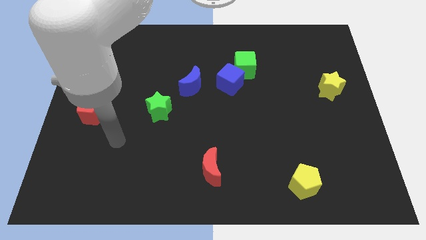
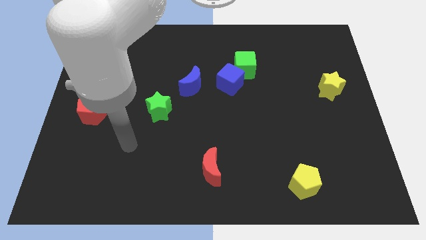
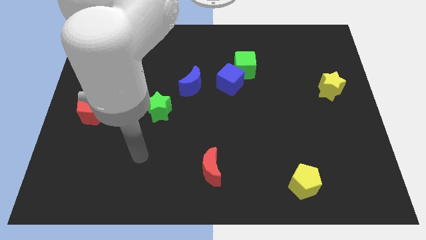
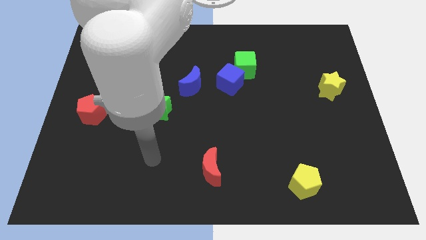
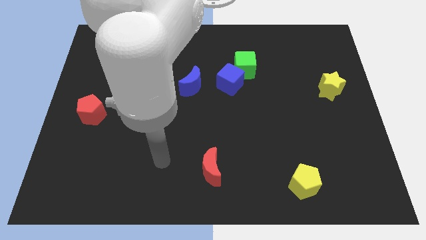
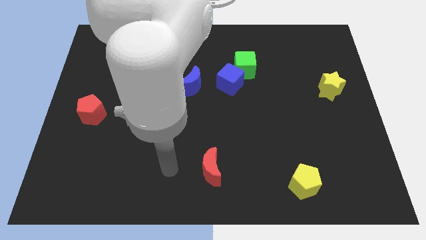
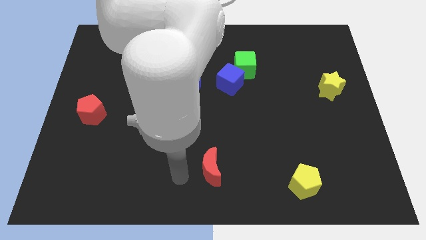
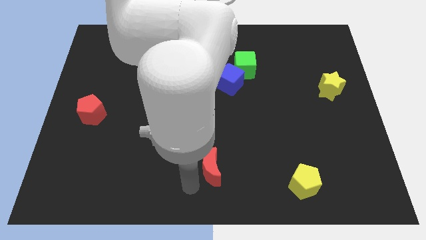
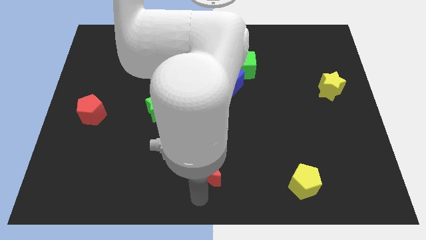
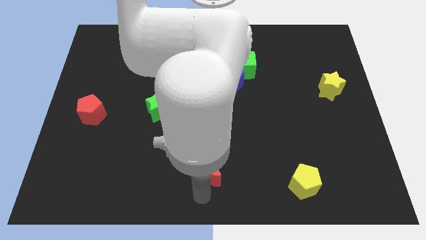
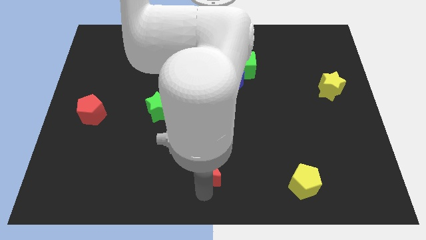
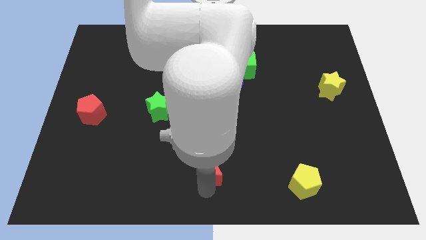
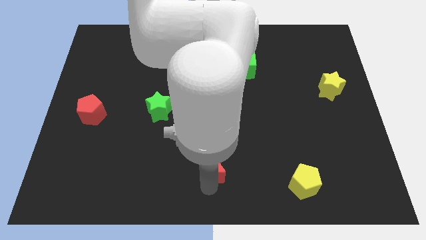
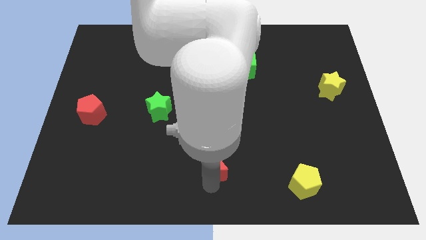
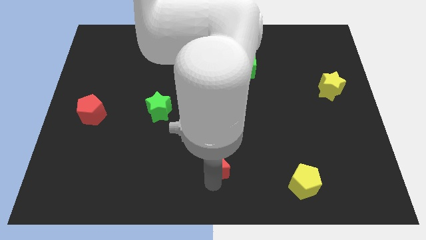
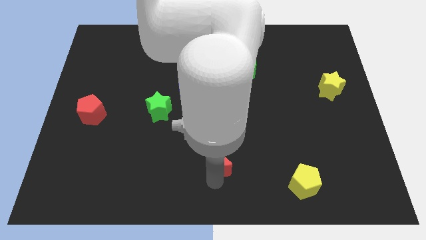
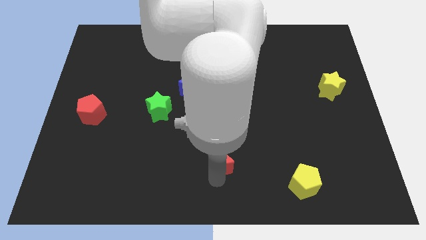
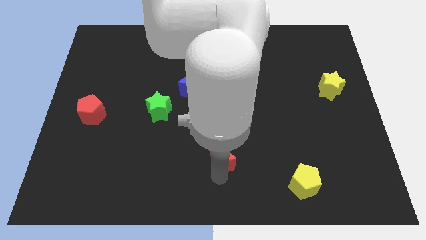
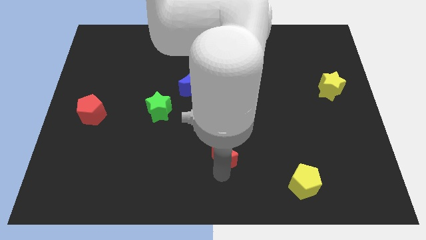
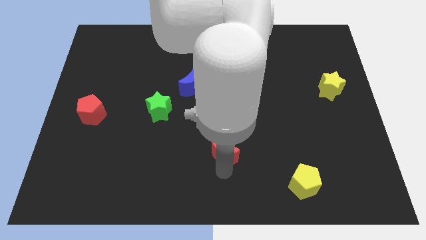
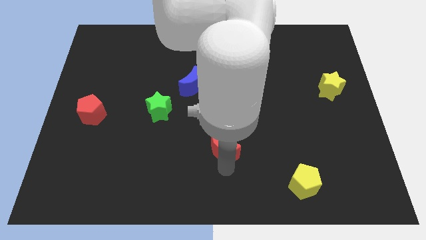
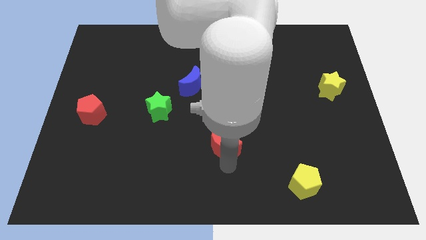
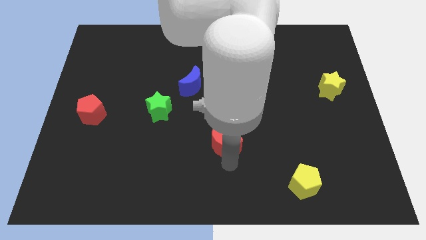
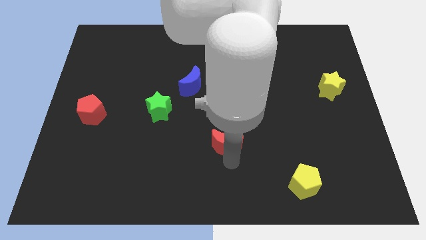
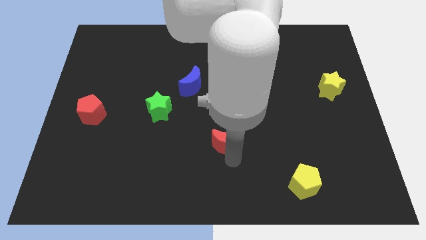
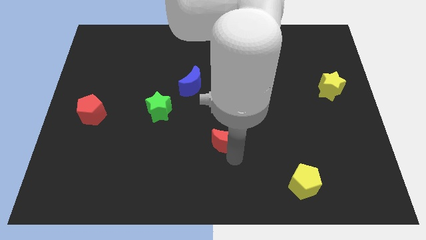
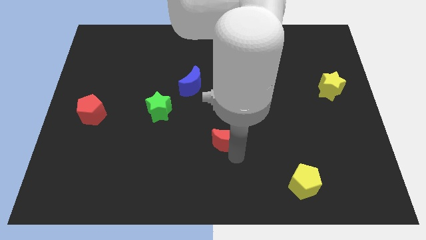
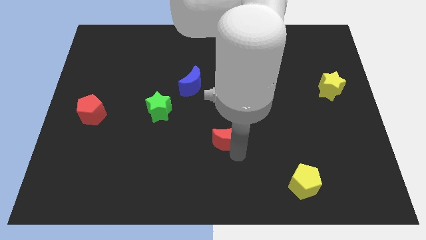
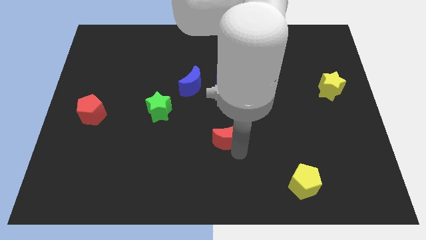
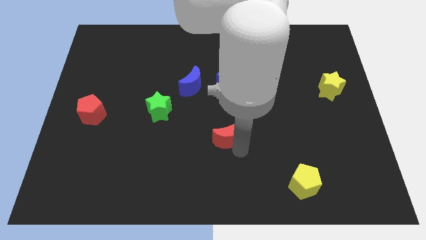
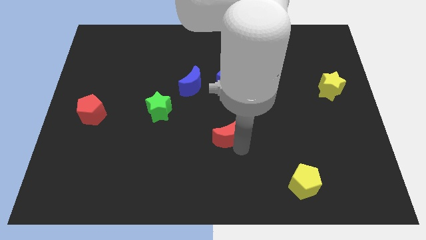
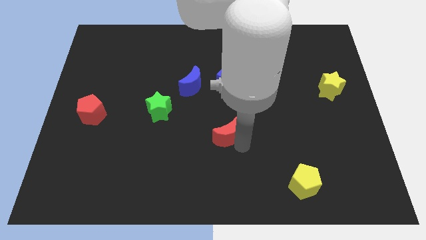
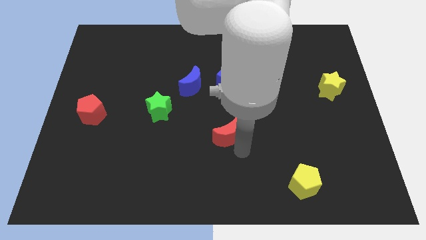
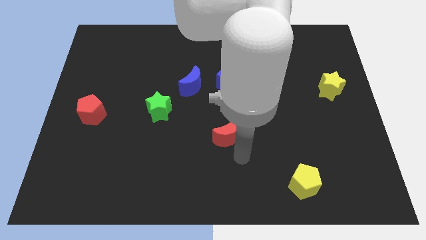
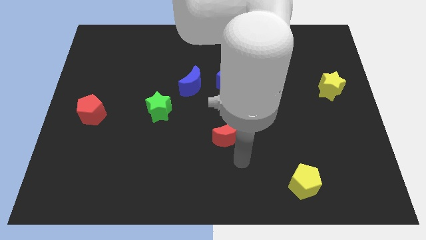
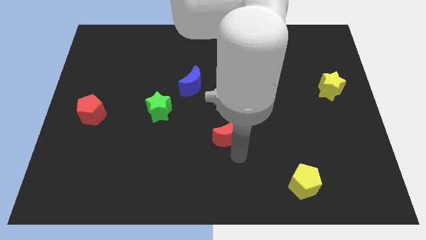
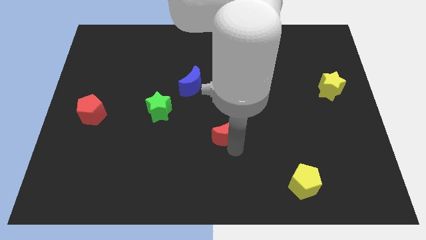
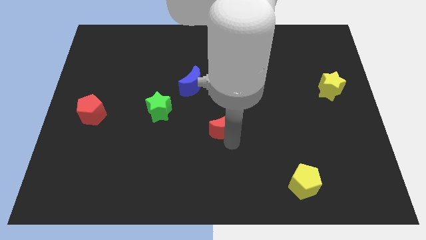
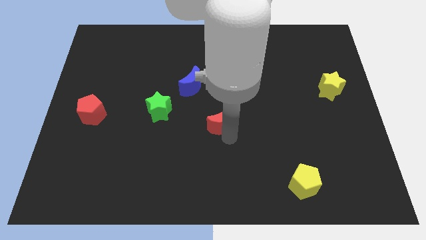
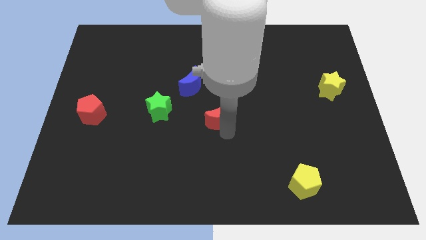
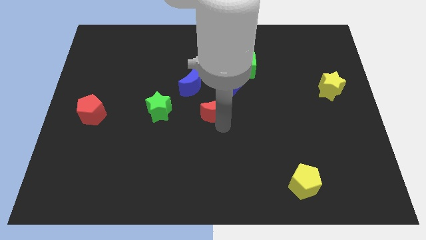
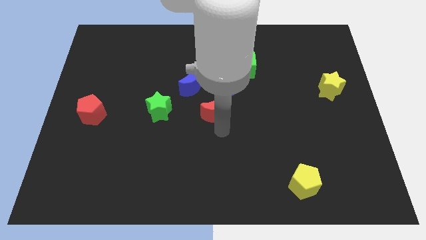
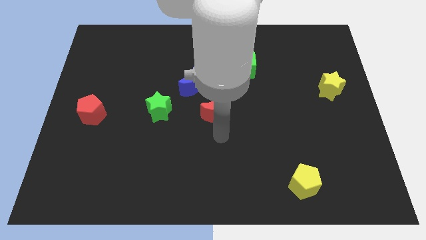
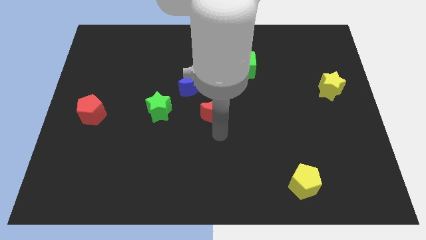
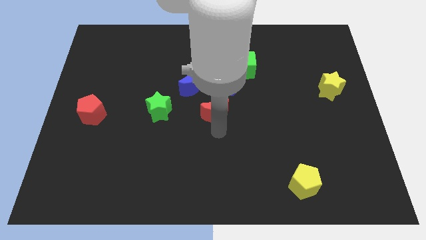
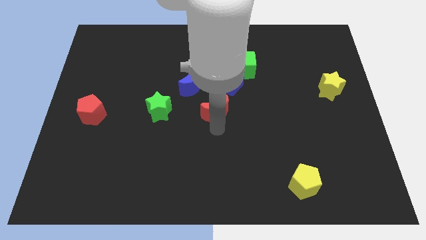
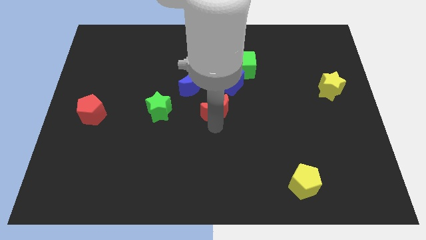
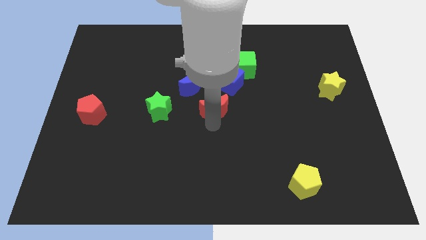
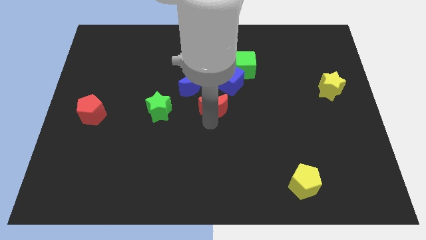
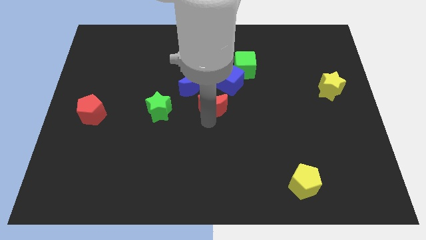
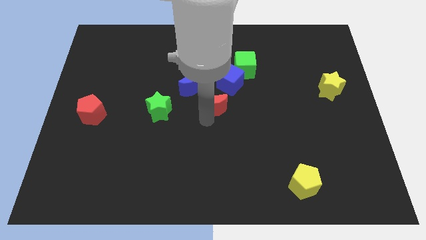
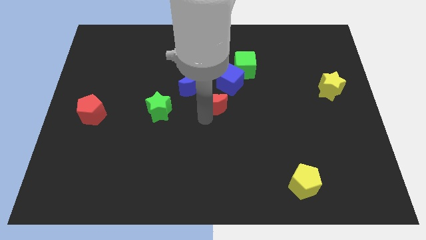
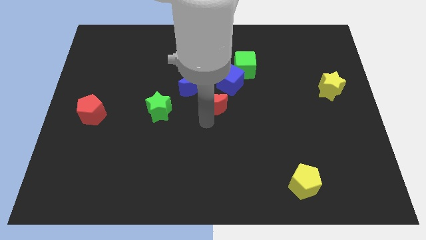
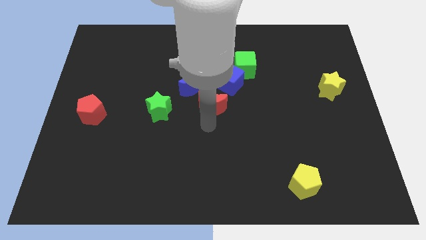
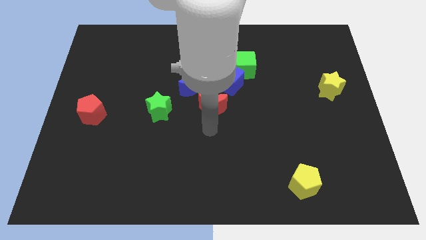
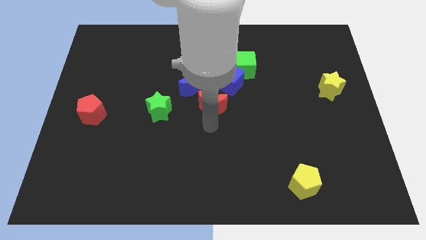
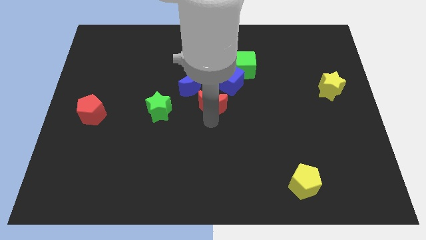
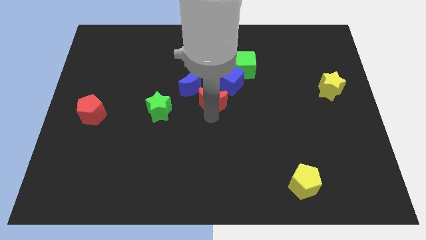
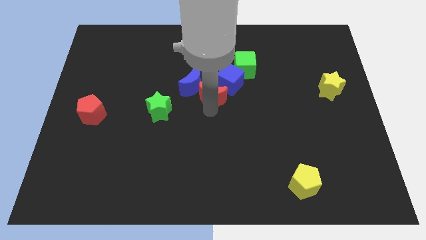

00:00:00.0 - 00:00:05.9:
put the red moon to the bottom left side of the green cube
